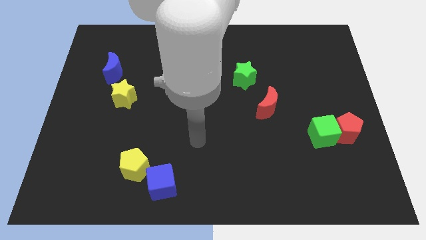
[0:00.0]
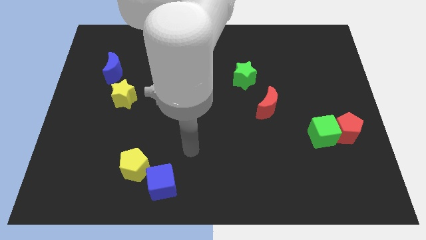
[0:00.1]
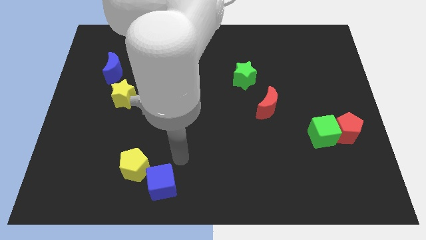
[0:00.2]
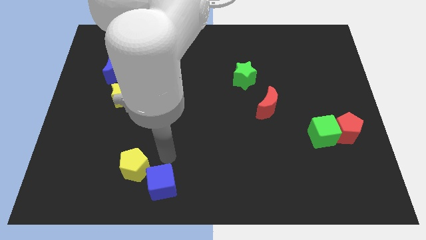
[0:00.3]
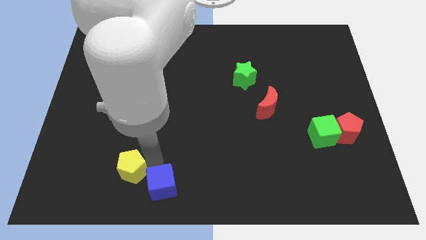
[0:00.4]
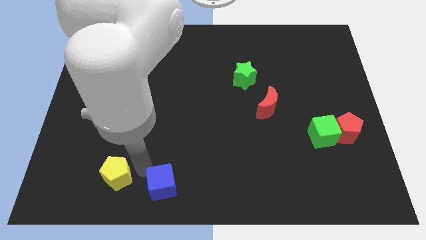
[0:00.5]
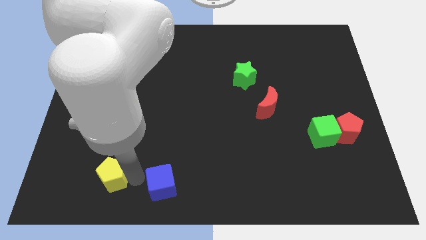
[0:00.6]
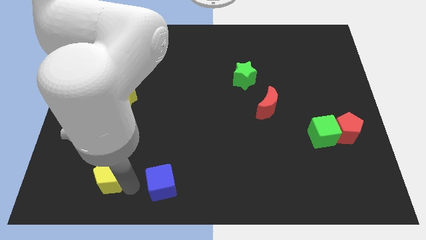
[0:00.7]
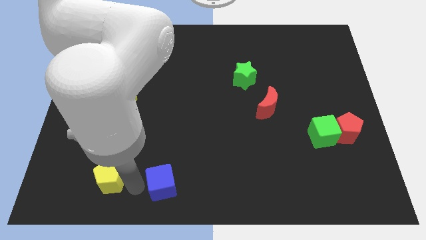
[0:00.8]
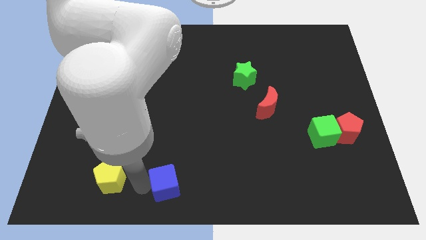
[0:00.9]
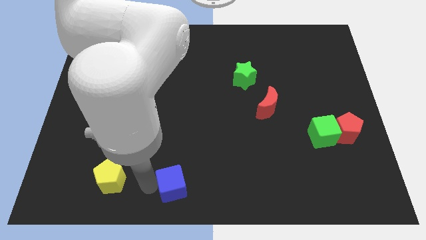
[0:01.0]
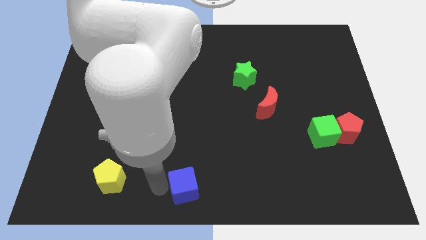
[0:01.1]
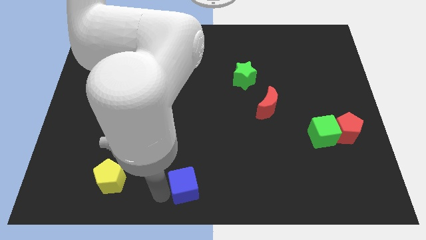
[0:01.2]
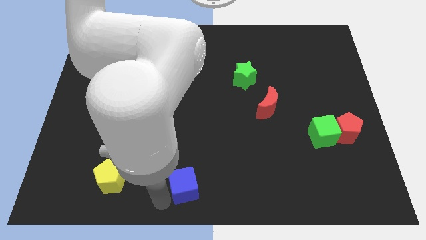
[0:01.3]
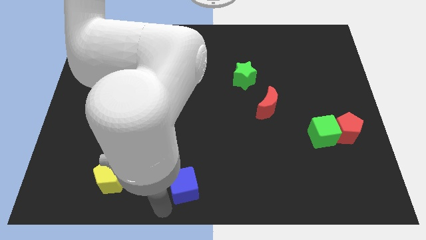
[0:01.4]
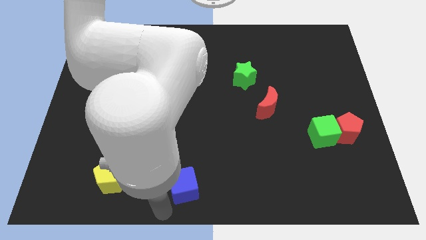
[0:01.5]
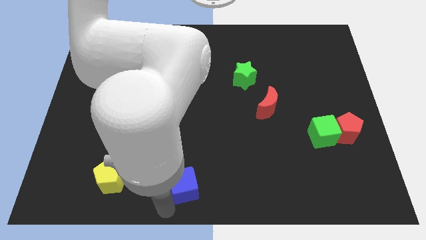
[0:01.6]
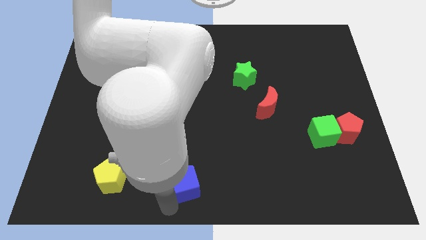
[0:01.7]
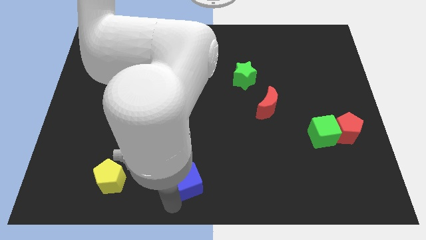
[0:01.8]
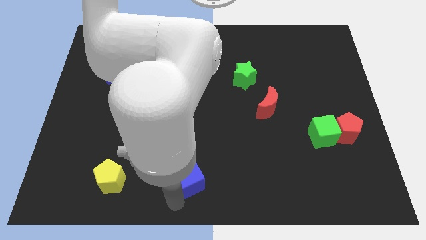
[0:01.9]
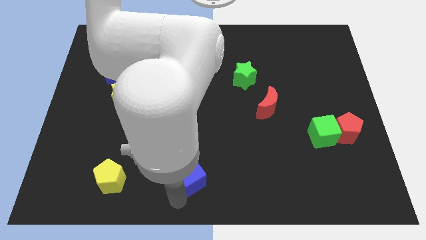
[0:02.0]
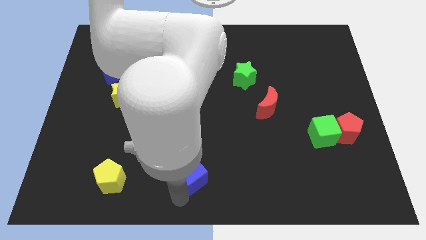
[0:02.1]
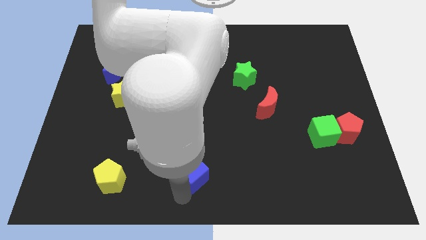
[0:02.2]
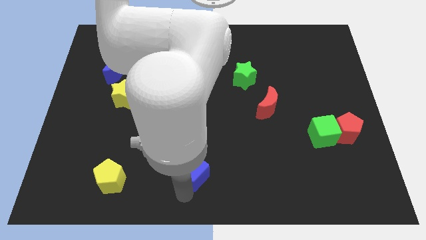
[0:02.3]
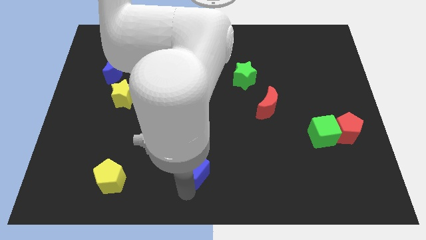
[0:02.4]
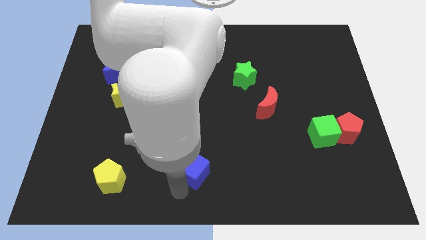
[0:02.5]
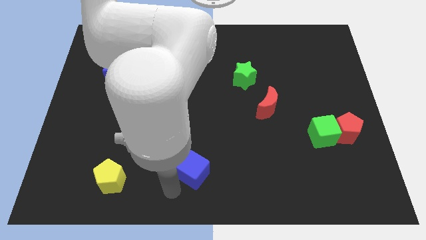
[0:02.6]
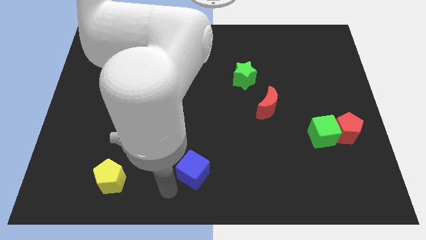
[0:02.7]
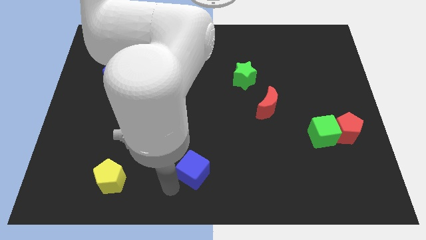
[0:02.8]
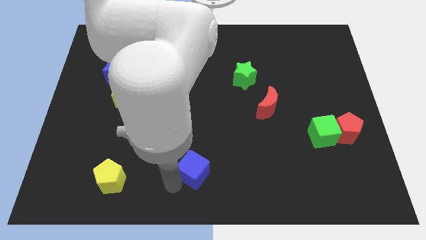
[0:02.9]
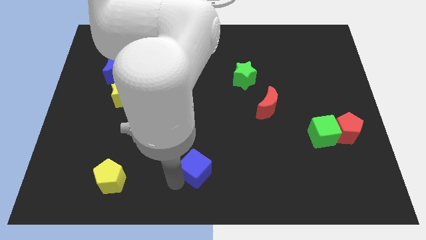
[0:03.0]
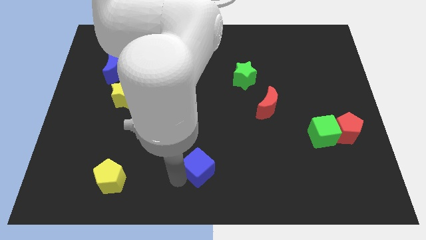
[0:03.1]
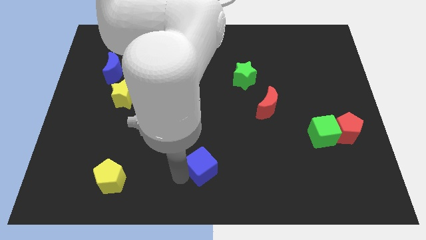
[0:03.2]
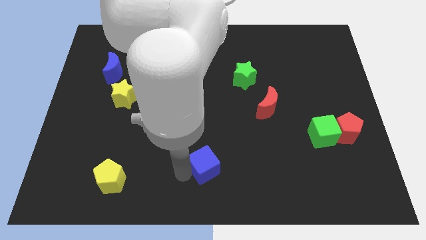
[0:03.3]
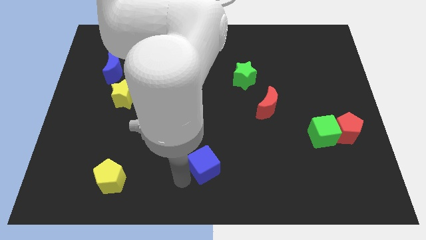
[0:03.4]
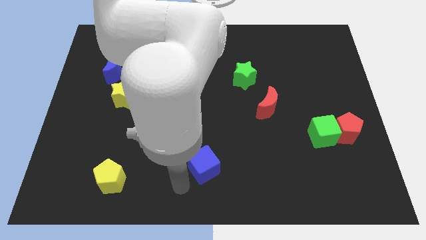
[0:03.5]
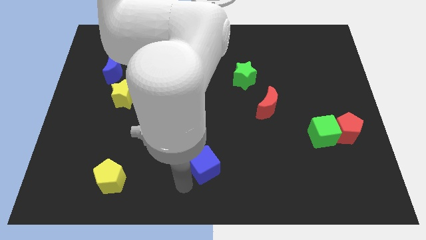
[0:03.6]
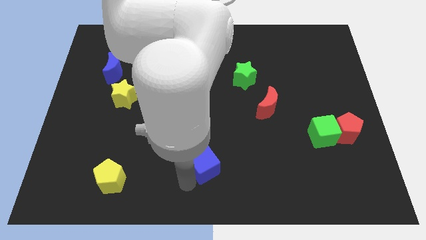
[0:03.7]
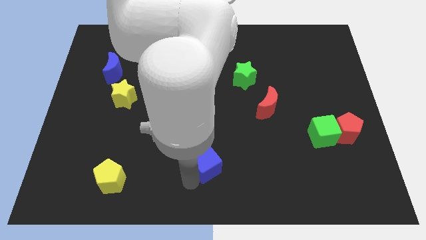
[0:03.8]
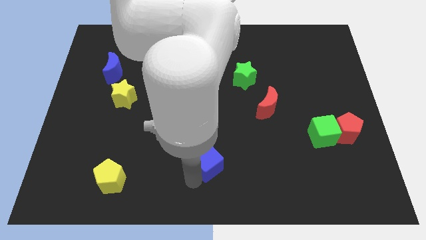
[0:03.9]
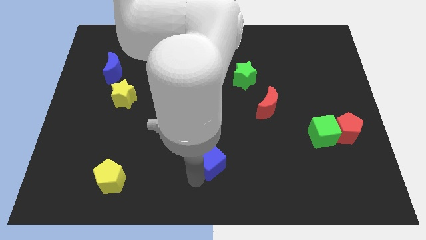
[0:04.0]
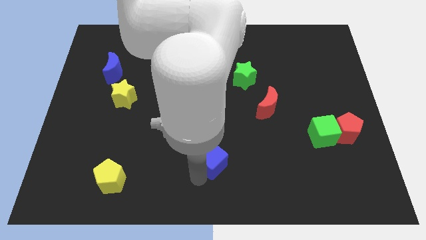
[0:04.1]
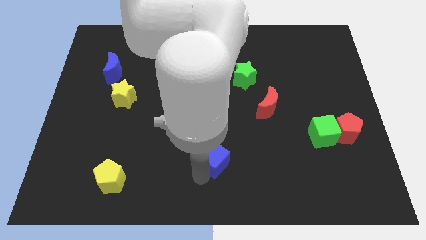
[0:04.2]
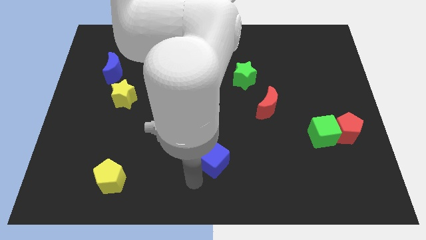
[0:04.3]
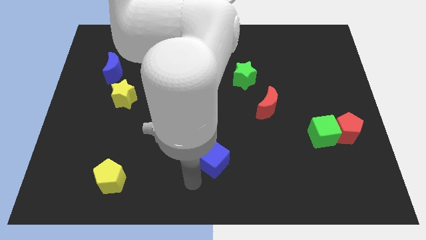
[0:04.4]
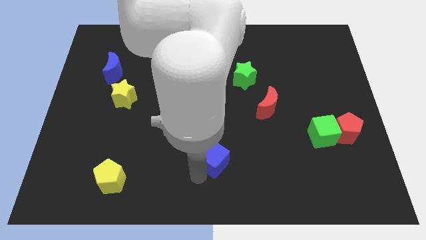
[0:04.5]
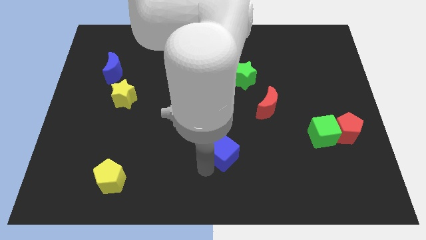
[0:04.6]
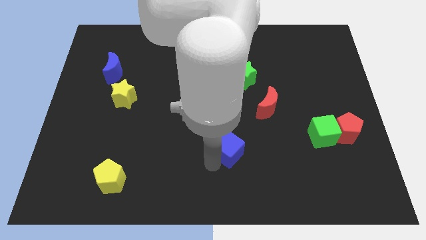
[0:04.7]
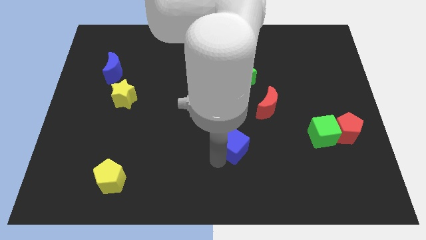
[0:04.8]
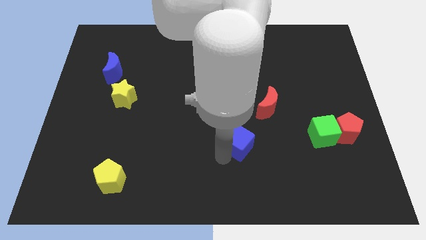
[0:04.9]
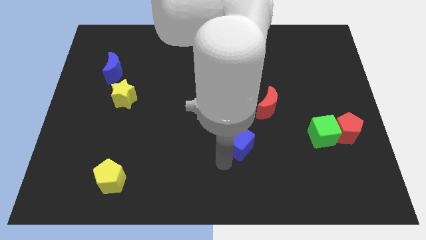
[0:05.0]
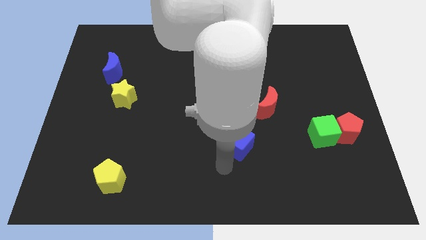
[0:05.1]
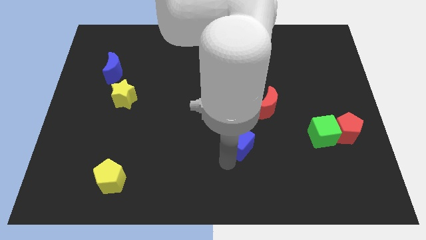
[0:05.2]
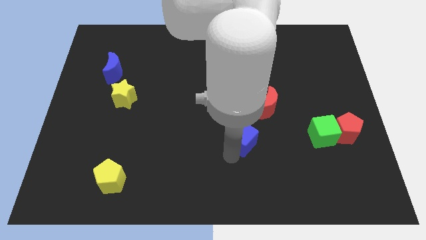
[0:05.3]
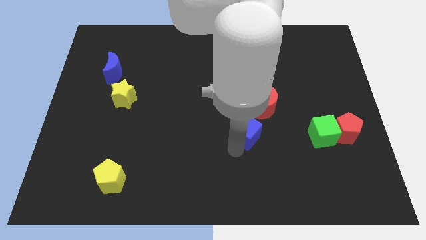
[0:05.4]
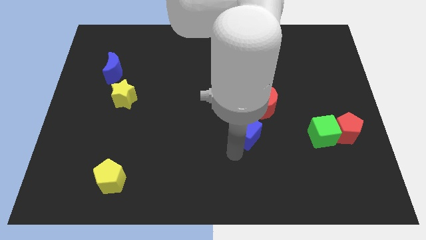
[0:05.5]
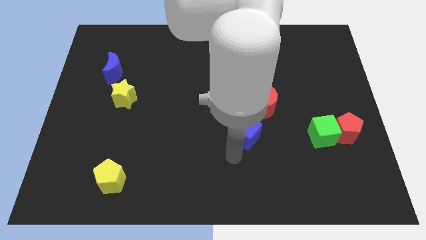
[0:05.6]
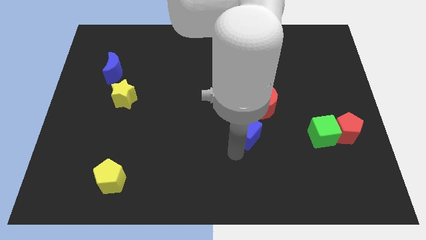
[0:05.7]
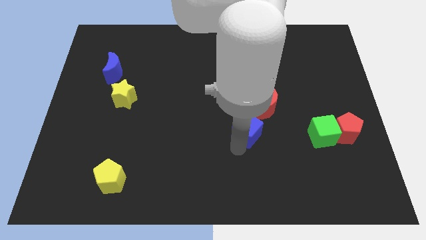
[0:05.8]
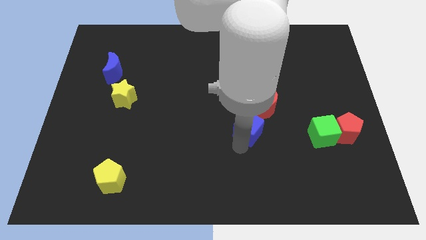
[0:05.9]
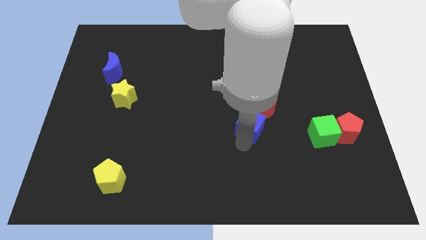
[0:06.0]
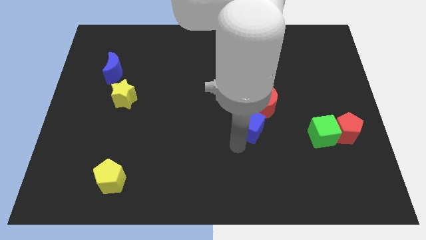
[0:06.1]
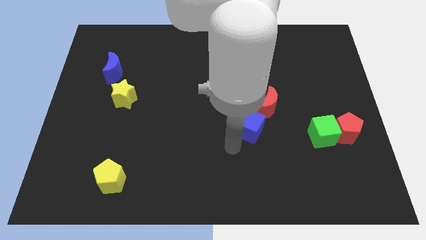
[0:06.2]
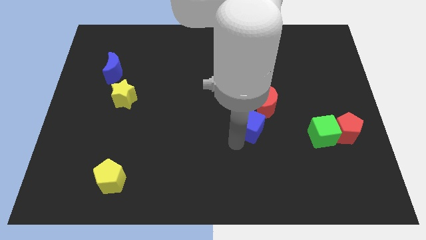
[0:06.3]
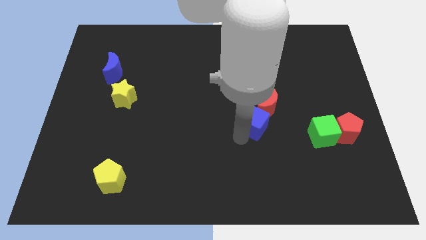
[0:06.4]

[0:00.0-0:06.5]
slide the blue cube to the red moon

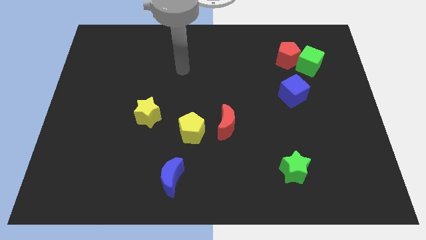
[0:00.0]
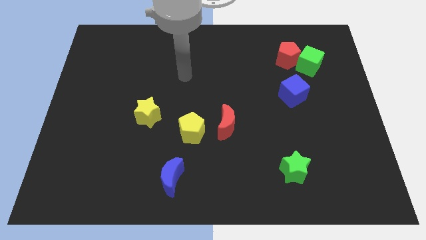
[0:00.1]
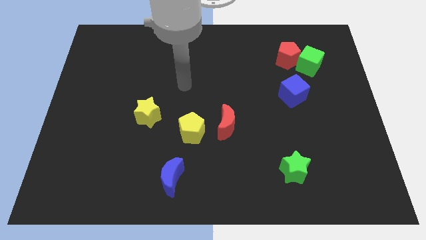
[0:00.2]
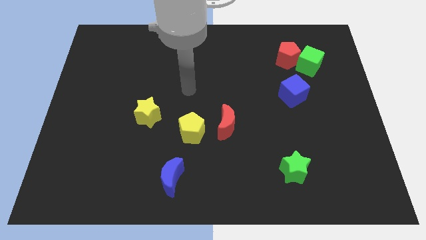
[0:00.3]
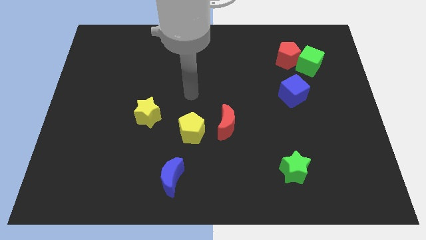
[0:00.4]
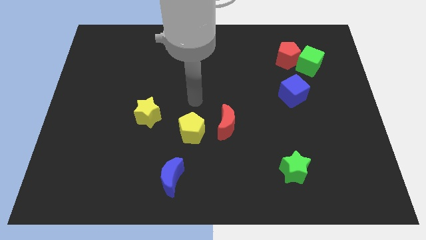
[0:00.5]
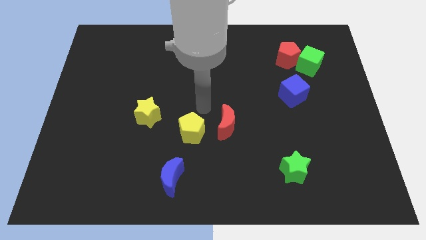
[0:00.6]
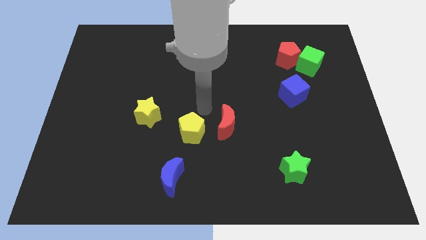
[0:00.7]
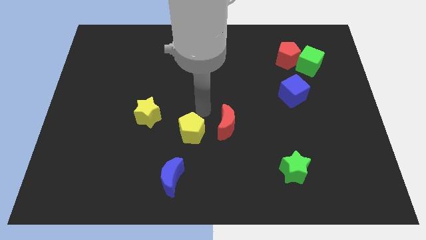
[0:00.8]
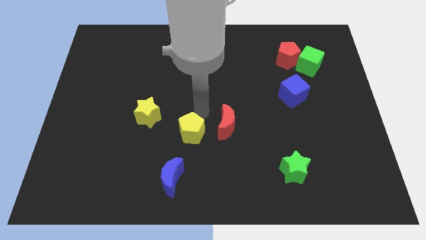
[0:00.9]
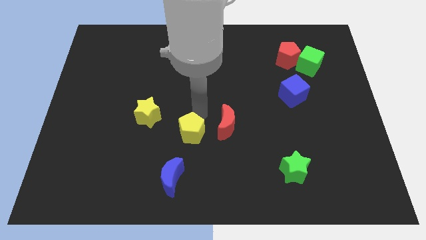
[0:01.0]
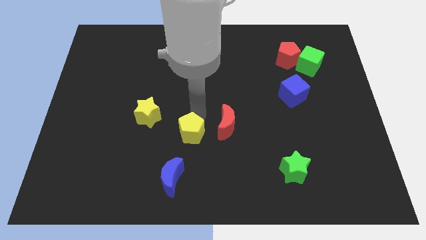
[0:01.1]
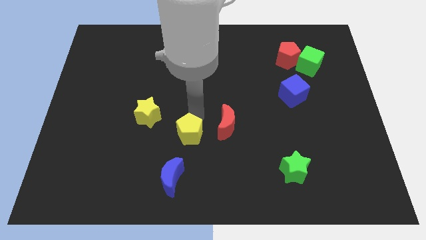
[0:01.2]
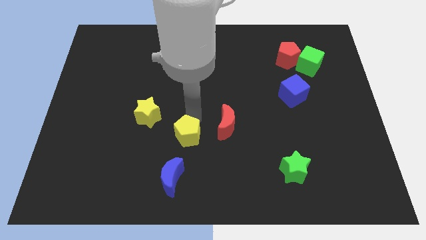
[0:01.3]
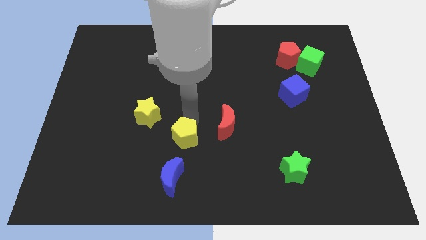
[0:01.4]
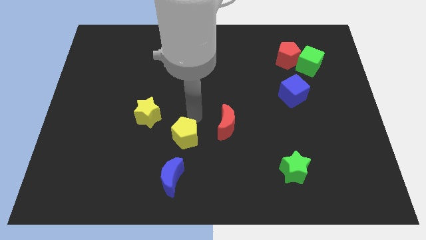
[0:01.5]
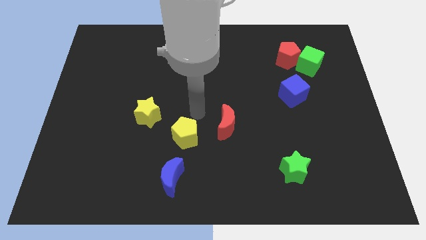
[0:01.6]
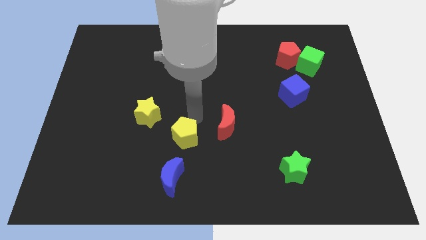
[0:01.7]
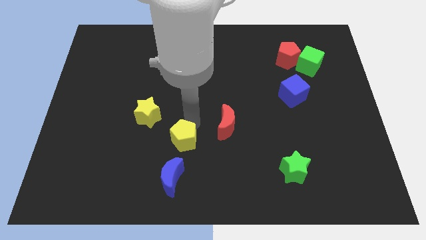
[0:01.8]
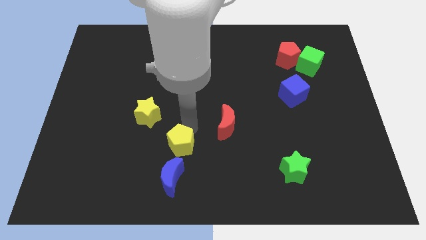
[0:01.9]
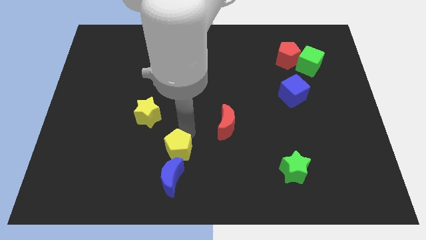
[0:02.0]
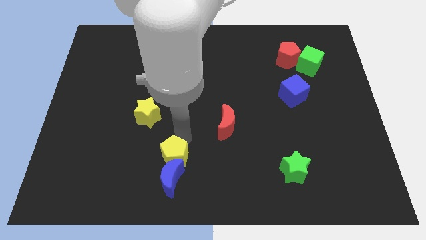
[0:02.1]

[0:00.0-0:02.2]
put the yellow pentagon close to the blue moon
